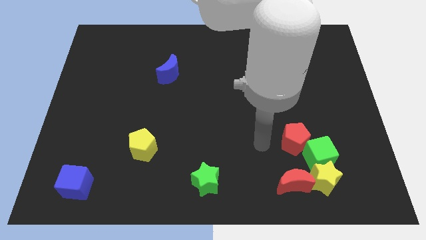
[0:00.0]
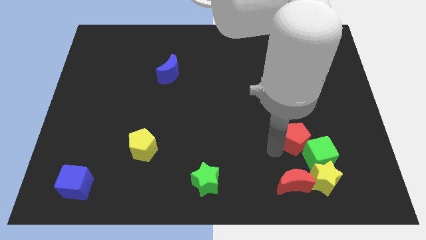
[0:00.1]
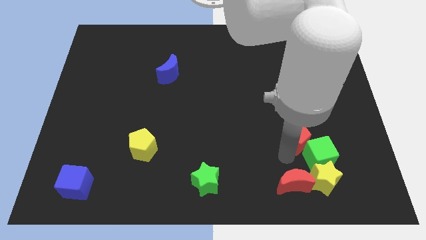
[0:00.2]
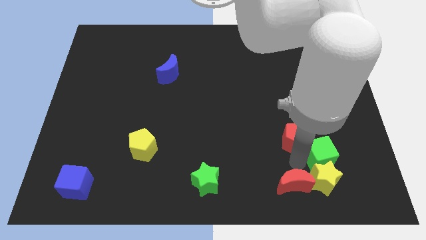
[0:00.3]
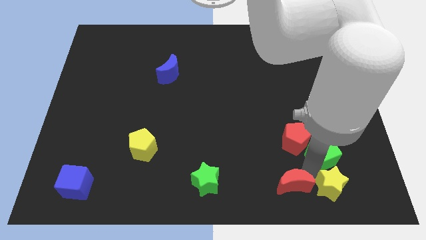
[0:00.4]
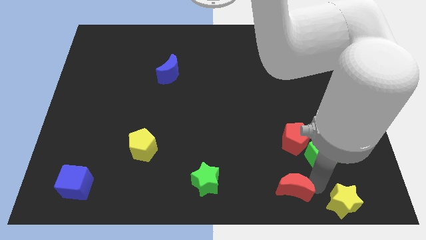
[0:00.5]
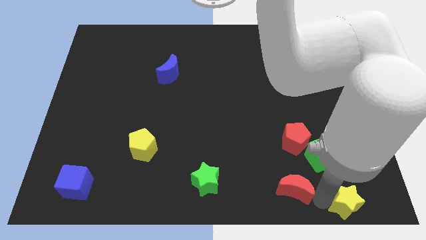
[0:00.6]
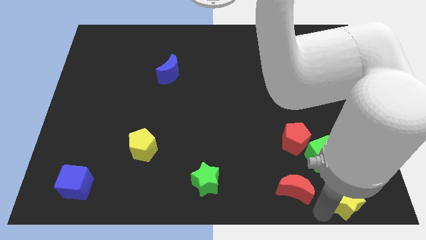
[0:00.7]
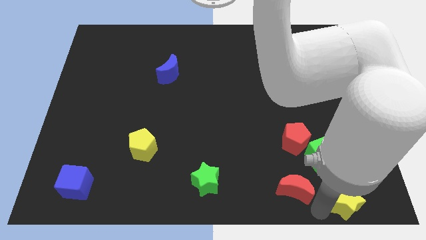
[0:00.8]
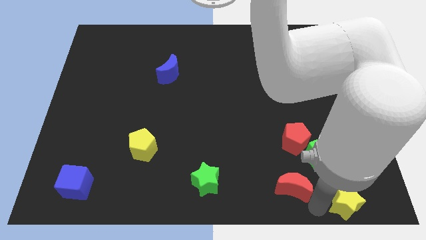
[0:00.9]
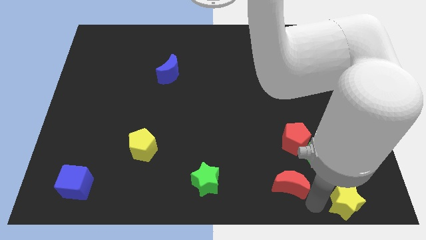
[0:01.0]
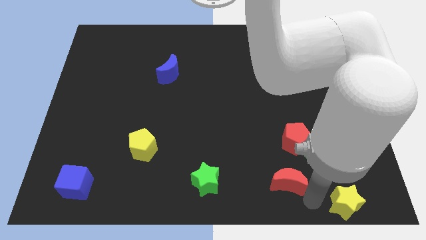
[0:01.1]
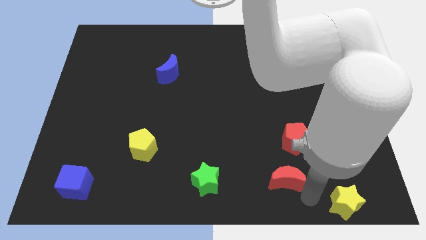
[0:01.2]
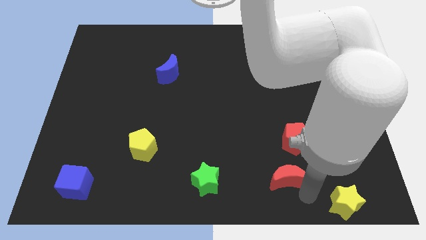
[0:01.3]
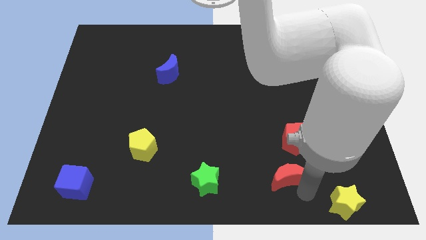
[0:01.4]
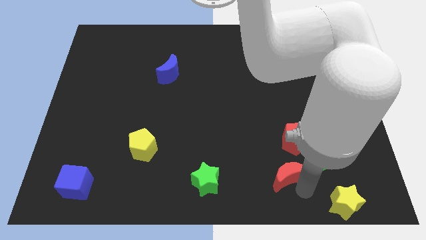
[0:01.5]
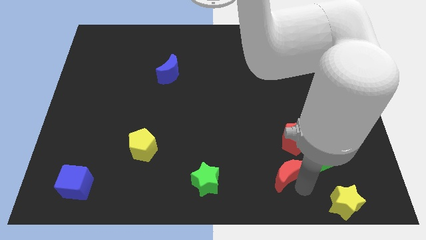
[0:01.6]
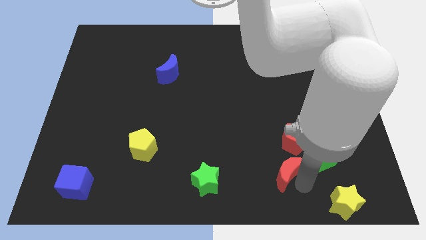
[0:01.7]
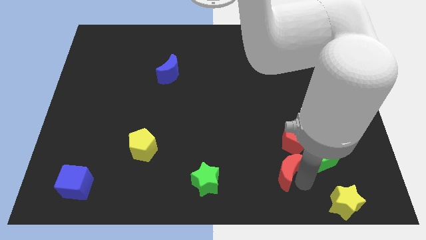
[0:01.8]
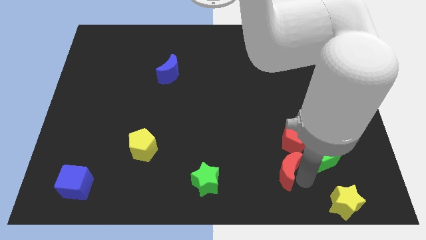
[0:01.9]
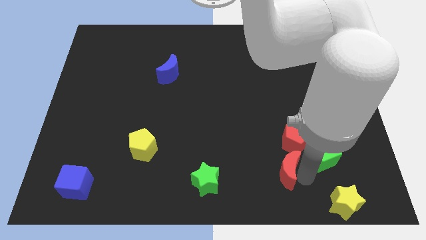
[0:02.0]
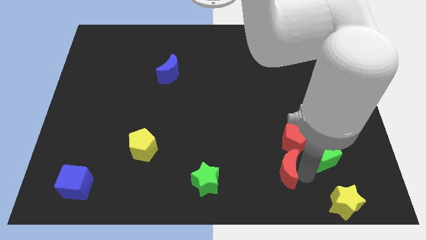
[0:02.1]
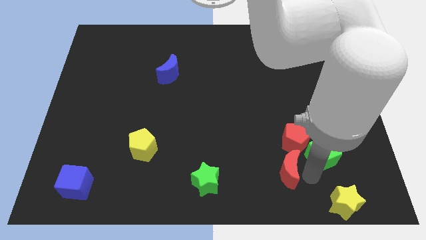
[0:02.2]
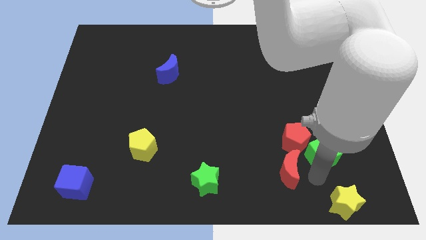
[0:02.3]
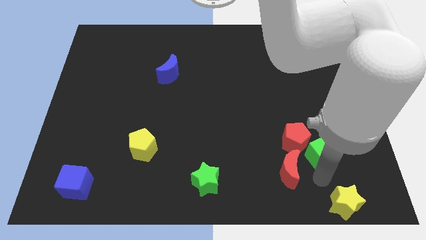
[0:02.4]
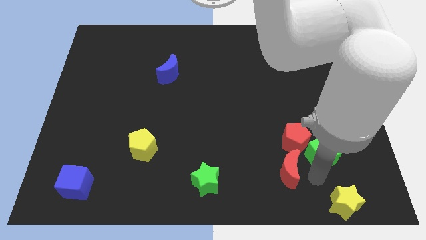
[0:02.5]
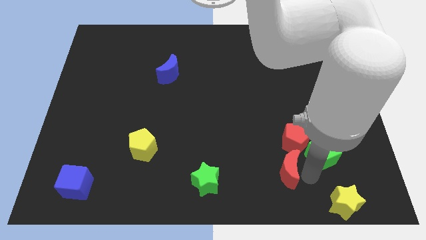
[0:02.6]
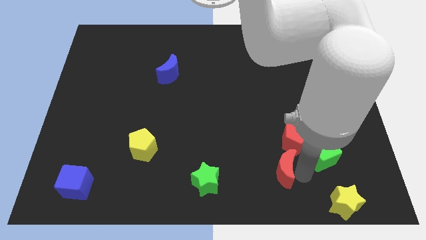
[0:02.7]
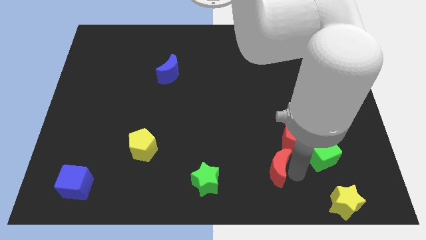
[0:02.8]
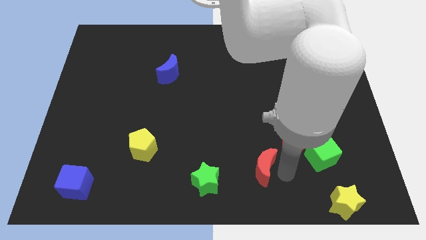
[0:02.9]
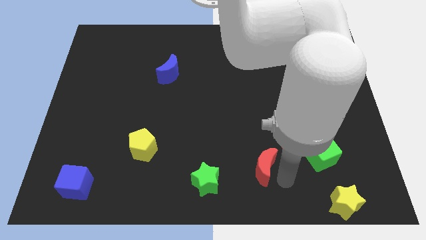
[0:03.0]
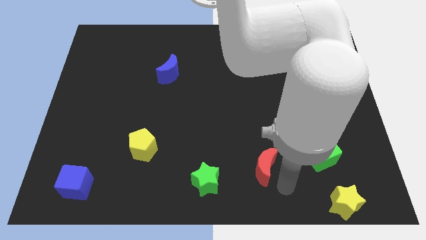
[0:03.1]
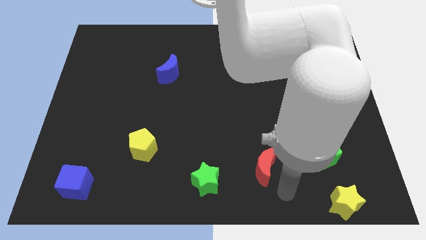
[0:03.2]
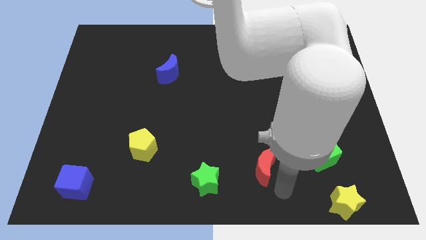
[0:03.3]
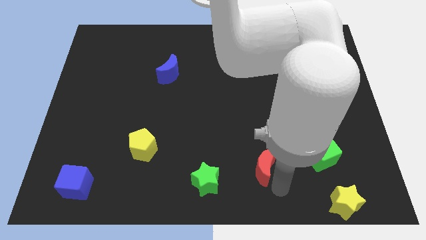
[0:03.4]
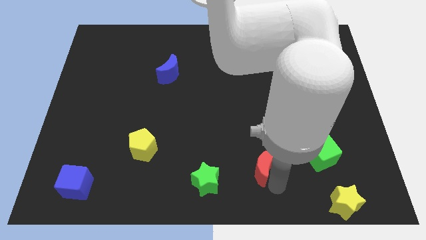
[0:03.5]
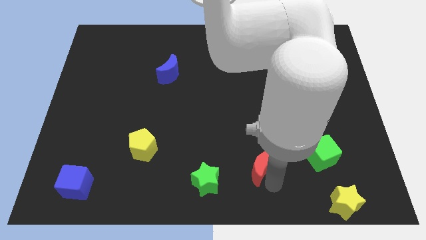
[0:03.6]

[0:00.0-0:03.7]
slide the red moon a bit upwards and to the left diagonally

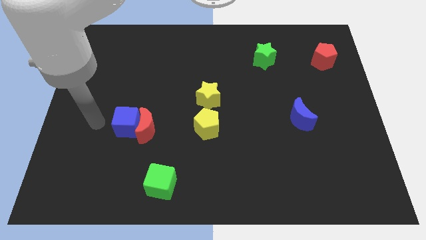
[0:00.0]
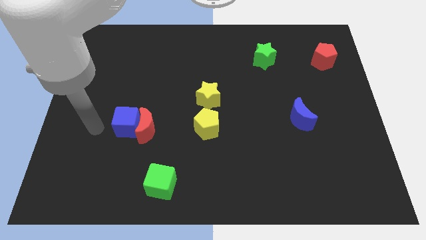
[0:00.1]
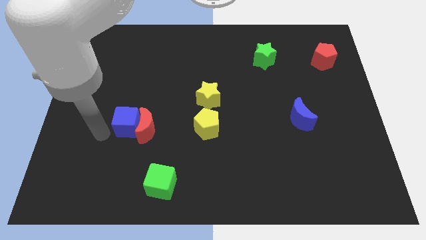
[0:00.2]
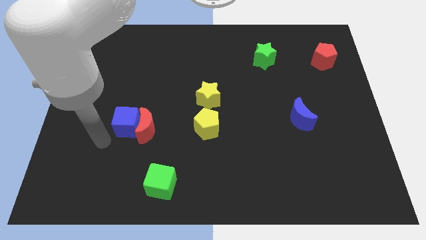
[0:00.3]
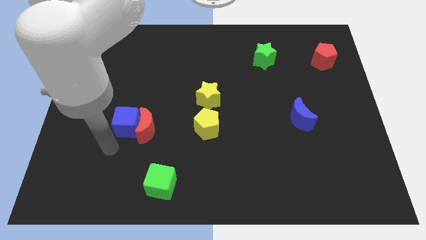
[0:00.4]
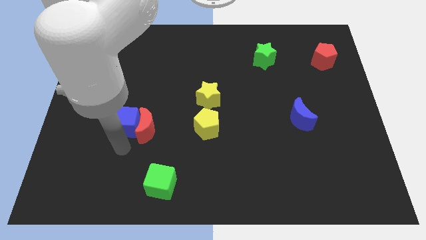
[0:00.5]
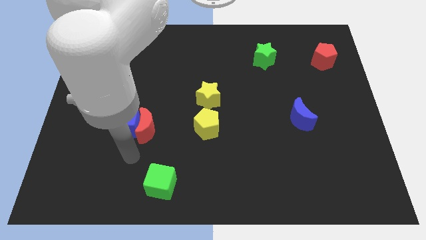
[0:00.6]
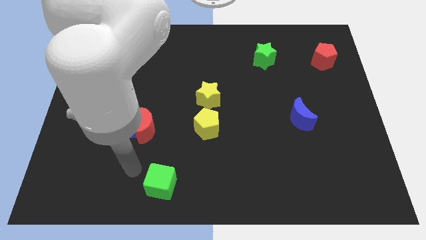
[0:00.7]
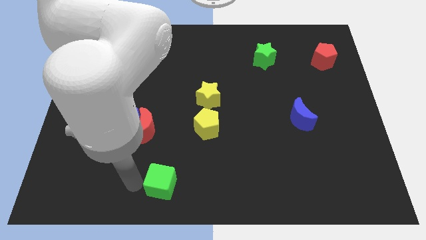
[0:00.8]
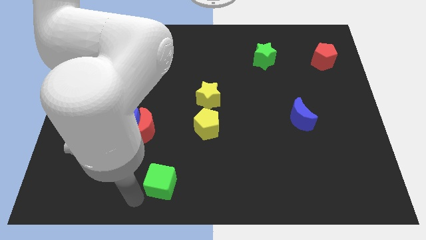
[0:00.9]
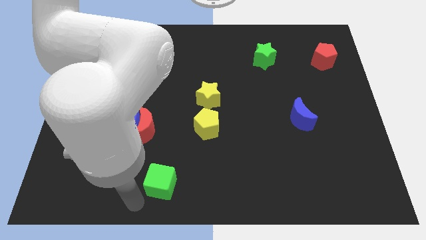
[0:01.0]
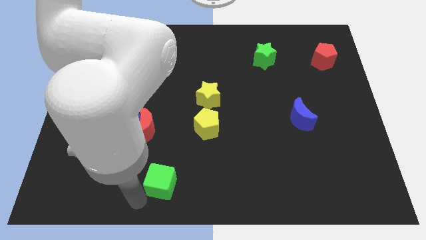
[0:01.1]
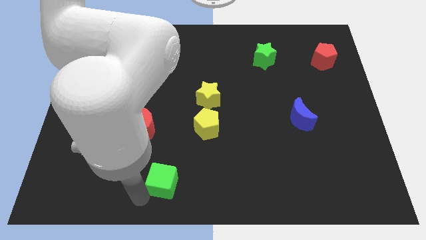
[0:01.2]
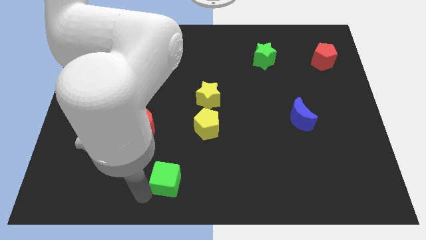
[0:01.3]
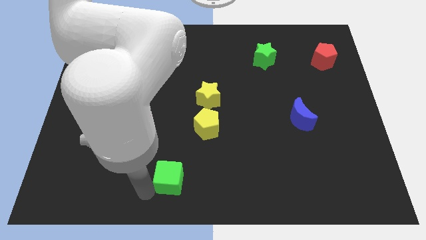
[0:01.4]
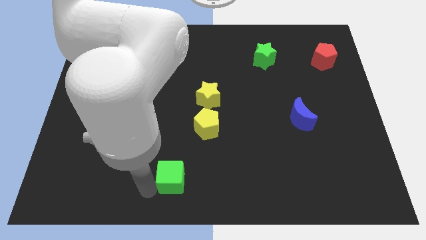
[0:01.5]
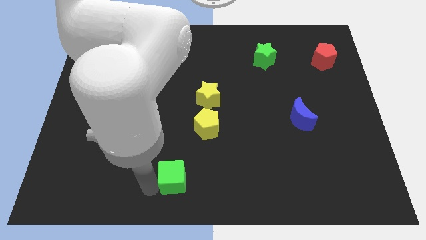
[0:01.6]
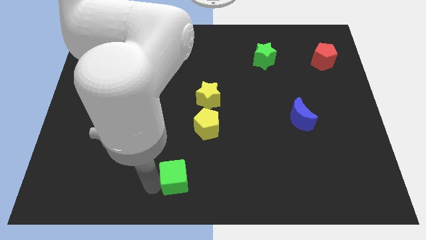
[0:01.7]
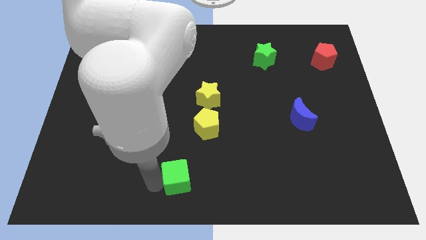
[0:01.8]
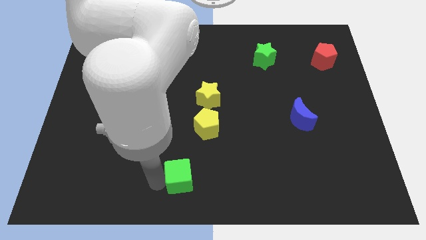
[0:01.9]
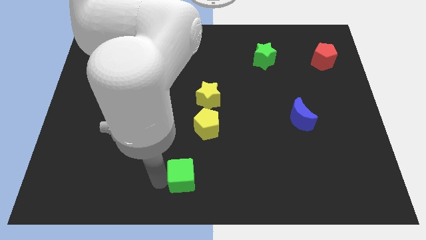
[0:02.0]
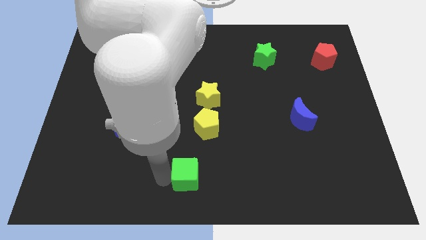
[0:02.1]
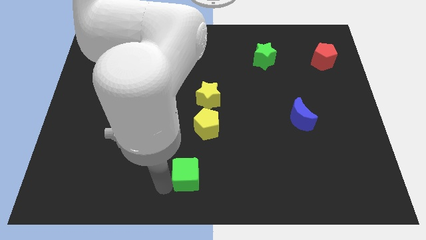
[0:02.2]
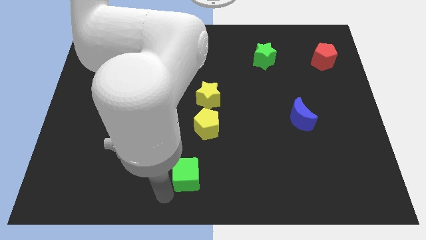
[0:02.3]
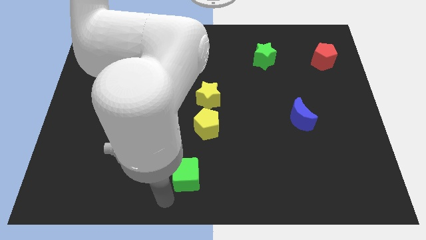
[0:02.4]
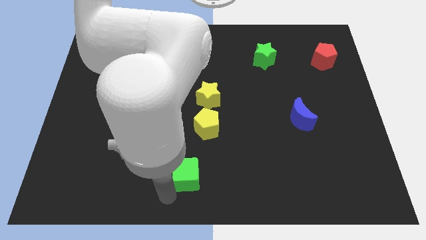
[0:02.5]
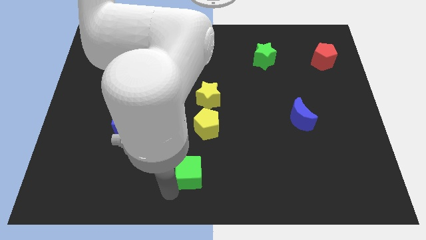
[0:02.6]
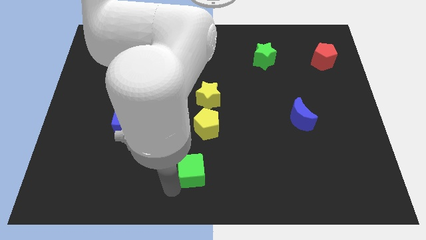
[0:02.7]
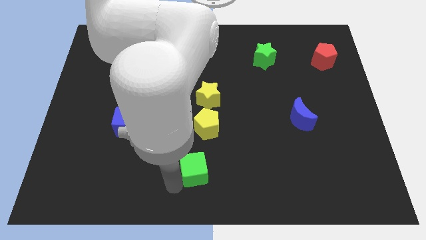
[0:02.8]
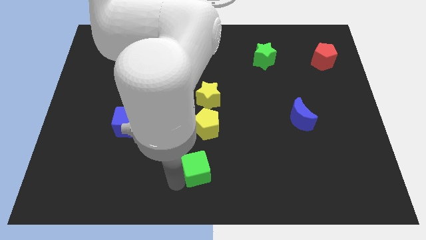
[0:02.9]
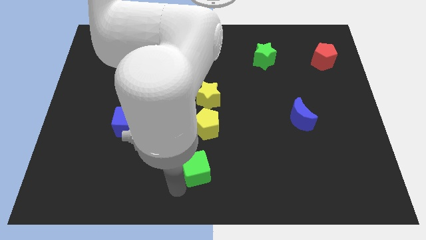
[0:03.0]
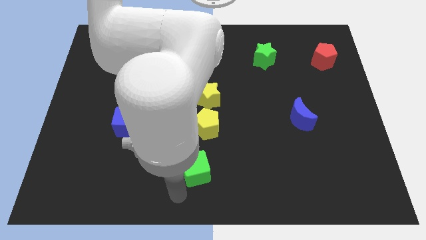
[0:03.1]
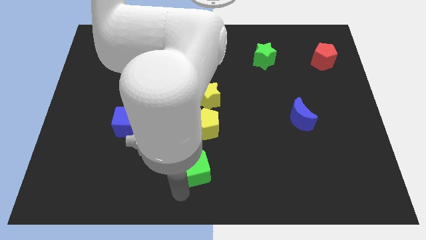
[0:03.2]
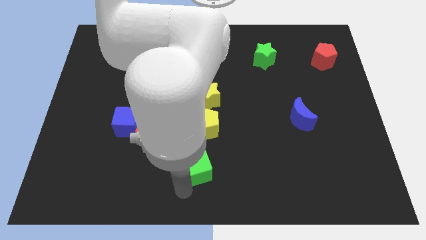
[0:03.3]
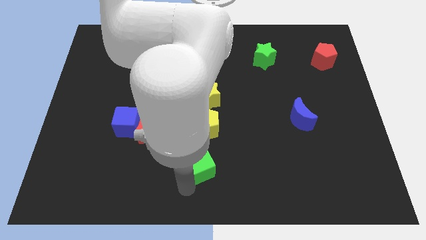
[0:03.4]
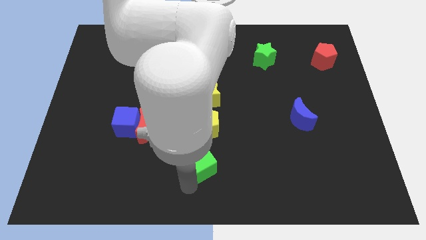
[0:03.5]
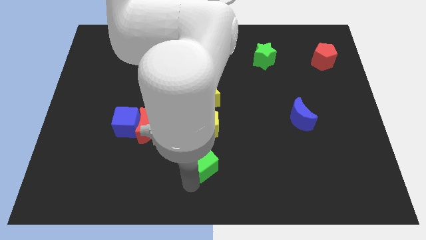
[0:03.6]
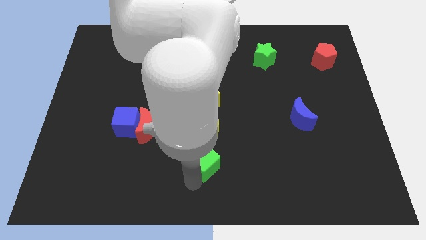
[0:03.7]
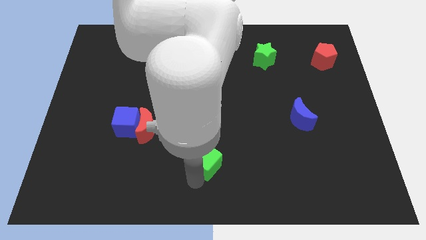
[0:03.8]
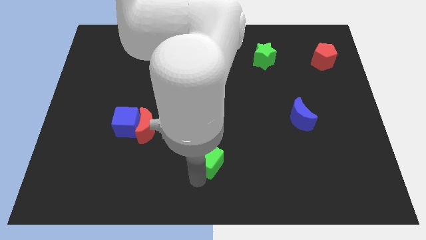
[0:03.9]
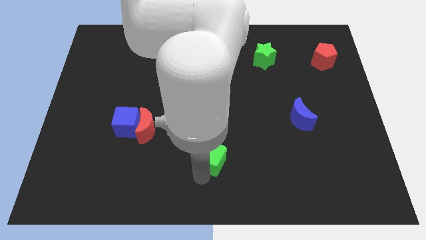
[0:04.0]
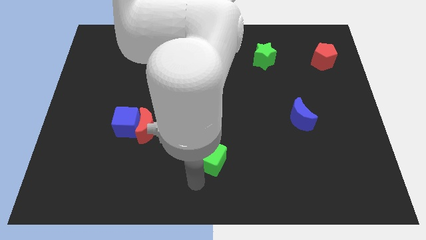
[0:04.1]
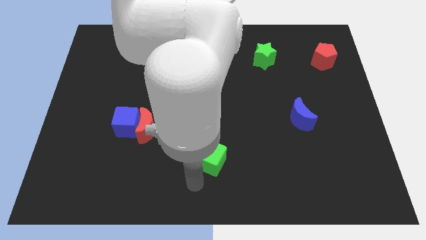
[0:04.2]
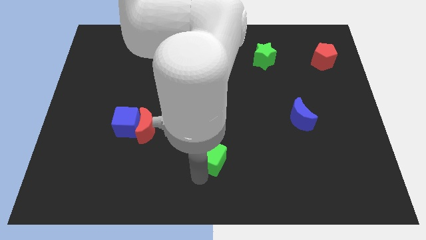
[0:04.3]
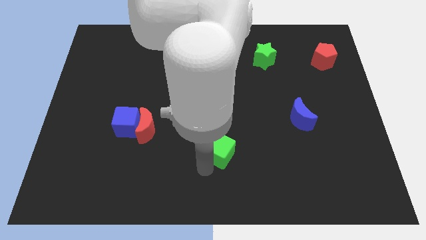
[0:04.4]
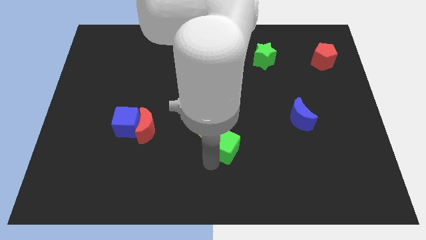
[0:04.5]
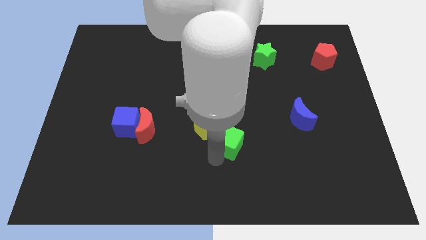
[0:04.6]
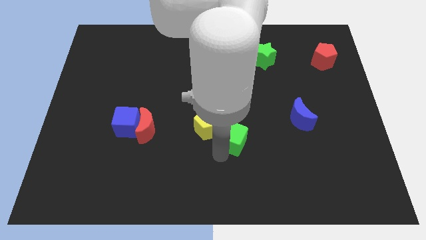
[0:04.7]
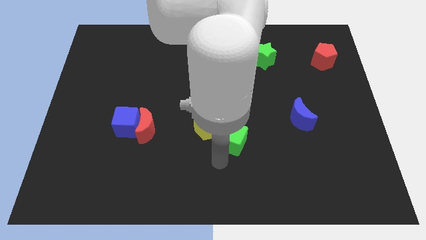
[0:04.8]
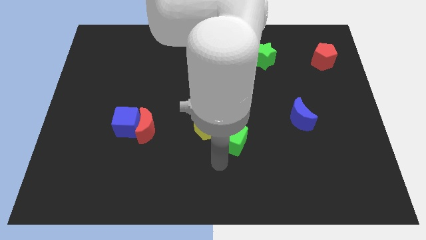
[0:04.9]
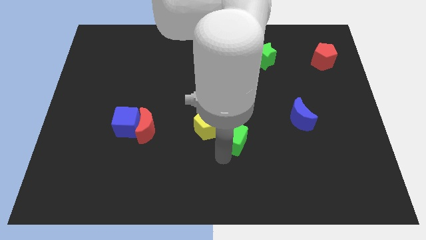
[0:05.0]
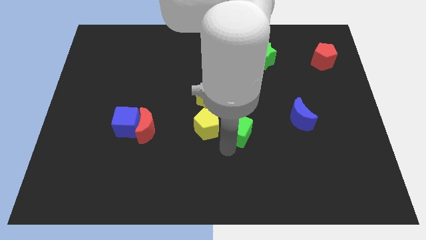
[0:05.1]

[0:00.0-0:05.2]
move the green cube upwards and right diagonally
